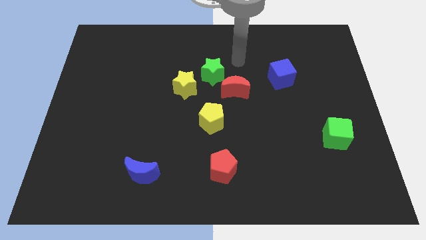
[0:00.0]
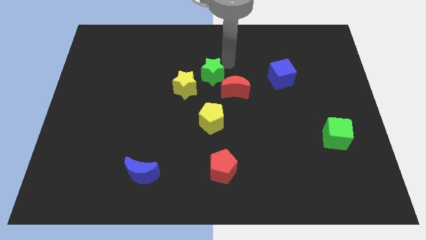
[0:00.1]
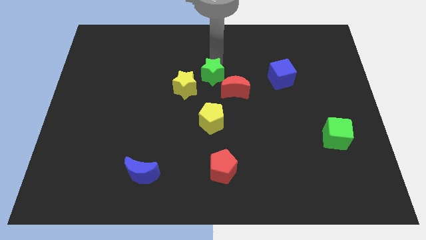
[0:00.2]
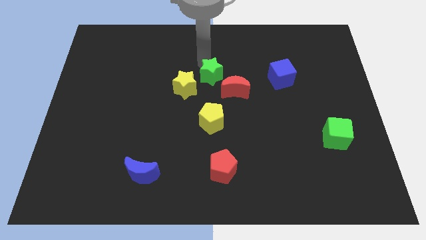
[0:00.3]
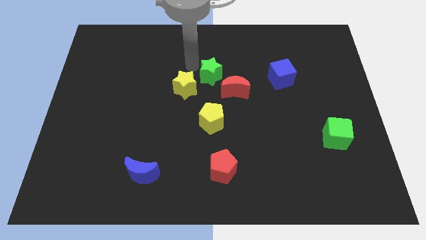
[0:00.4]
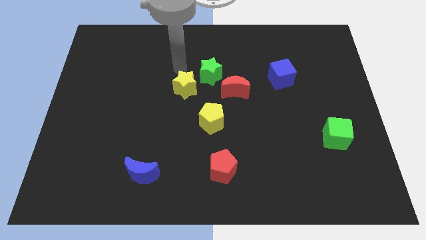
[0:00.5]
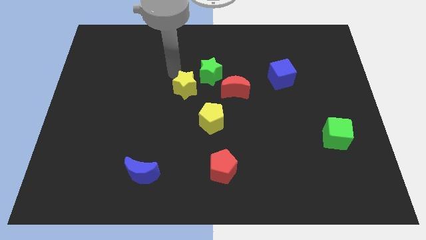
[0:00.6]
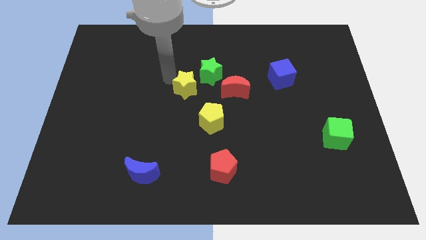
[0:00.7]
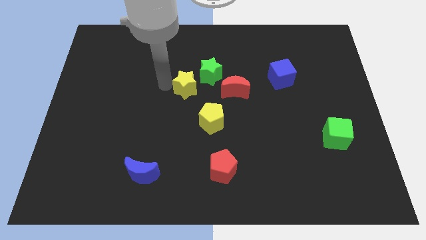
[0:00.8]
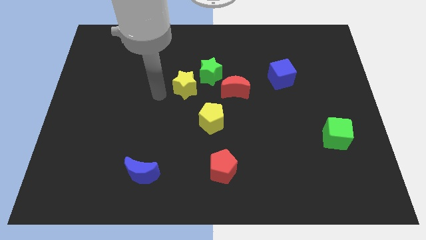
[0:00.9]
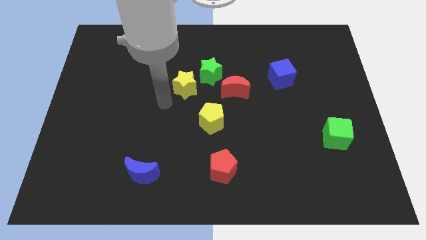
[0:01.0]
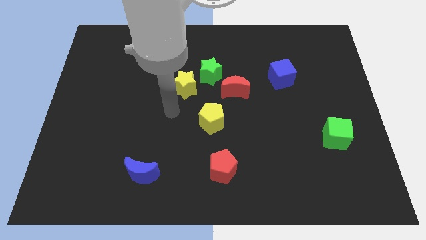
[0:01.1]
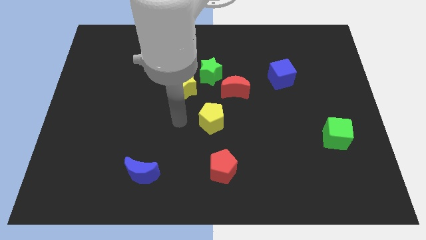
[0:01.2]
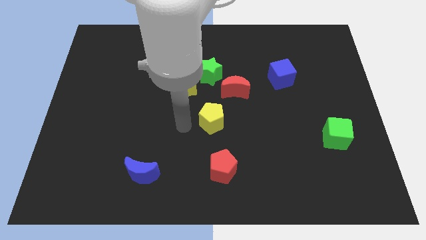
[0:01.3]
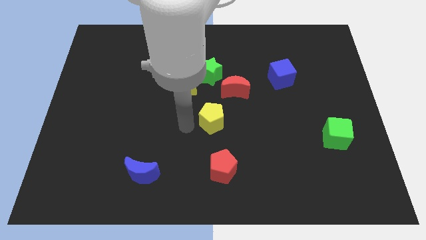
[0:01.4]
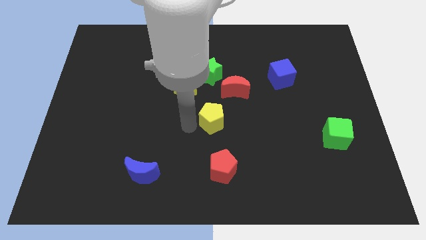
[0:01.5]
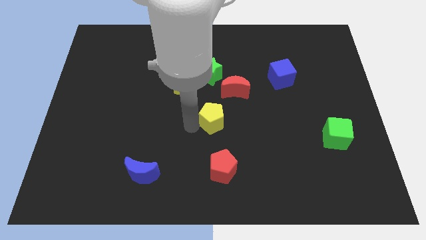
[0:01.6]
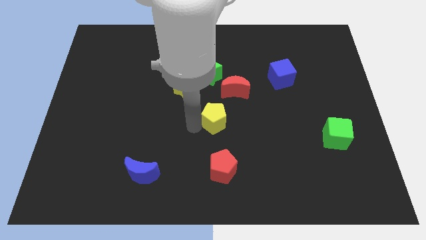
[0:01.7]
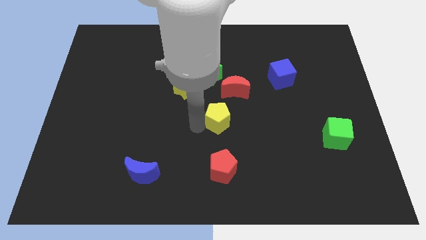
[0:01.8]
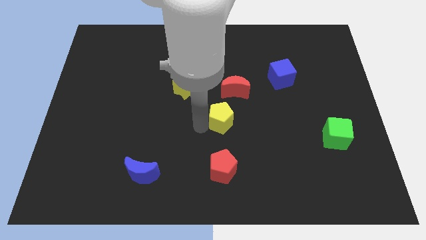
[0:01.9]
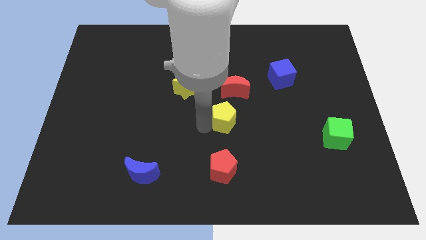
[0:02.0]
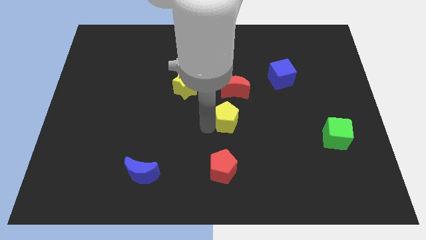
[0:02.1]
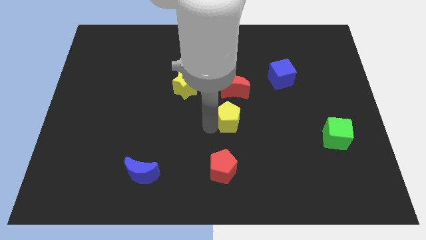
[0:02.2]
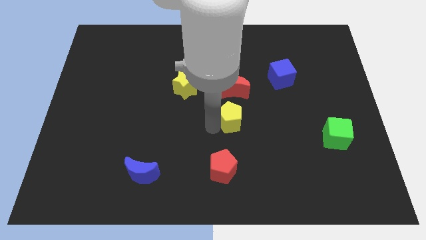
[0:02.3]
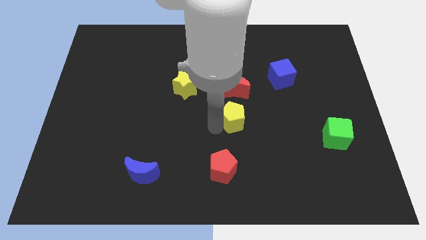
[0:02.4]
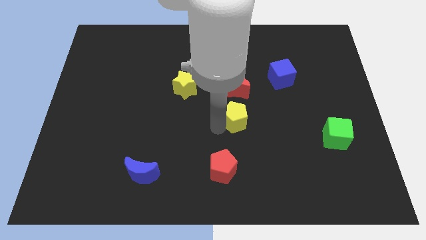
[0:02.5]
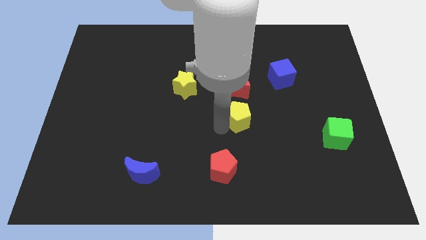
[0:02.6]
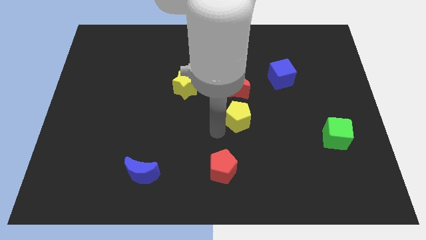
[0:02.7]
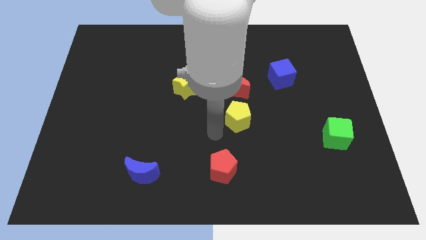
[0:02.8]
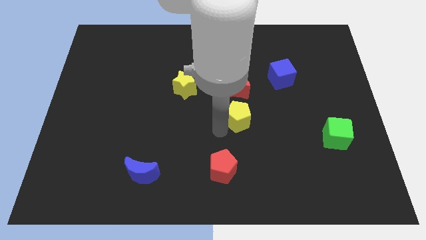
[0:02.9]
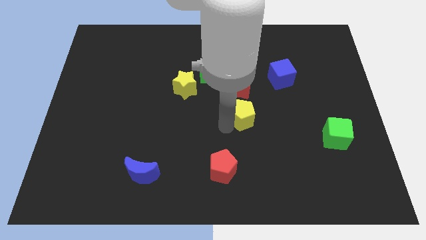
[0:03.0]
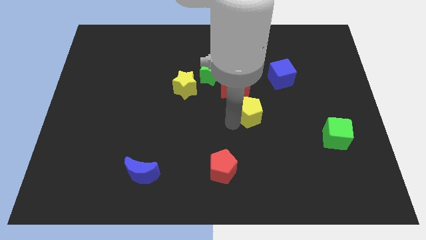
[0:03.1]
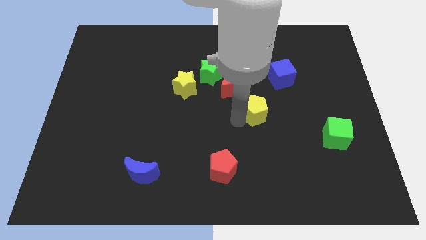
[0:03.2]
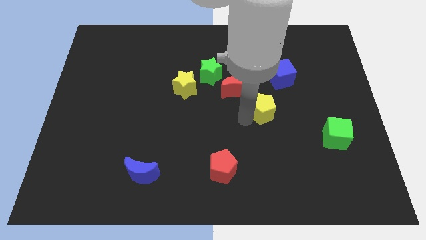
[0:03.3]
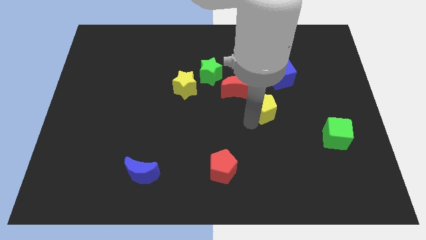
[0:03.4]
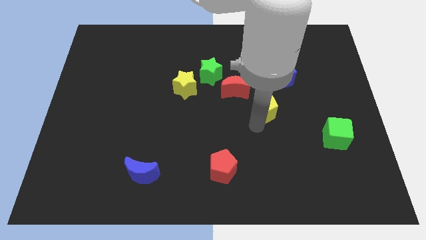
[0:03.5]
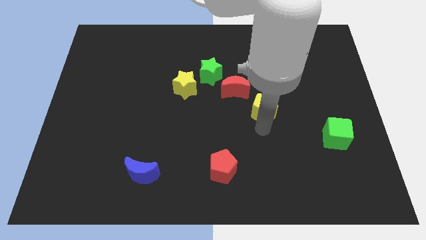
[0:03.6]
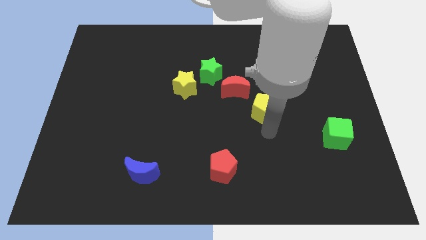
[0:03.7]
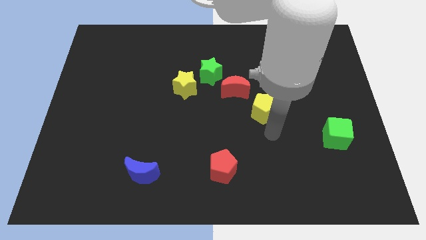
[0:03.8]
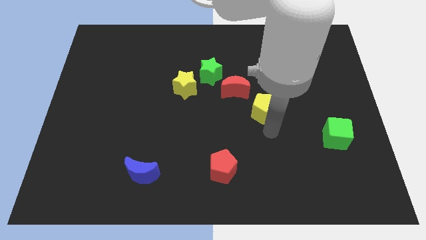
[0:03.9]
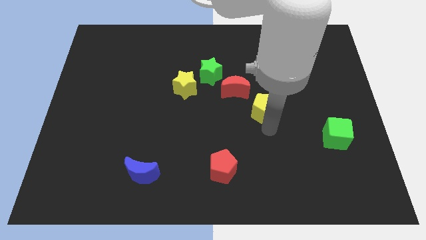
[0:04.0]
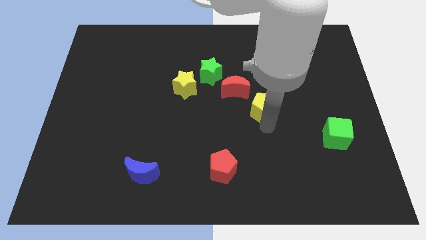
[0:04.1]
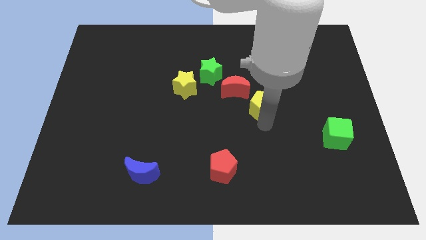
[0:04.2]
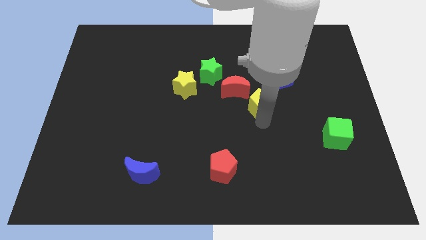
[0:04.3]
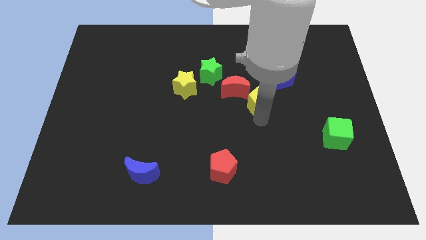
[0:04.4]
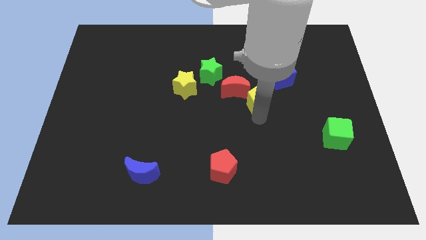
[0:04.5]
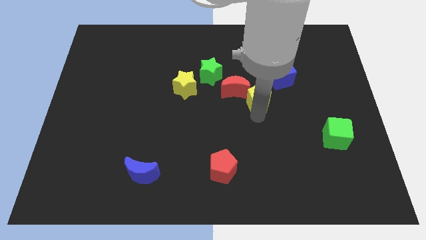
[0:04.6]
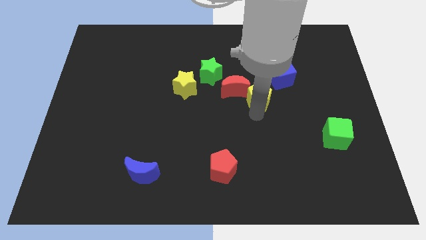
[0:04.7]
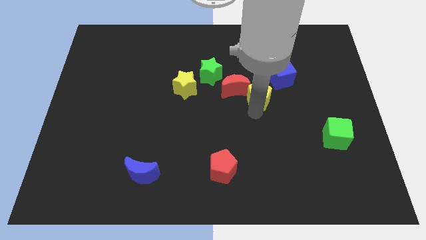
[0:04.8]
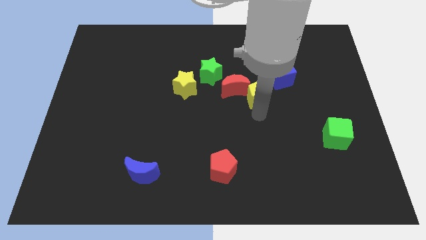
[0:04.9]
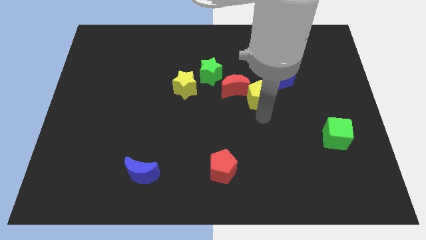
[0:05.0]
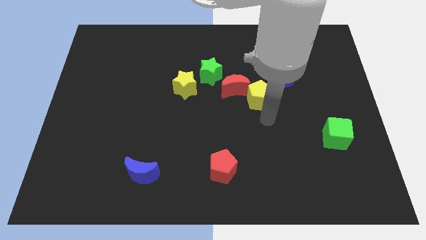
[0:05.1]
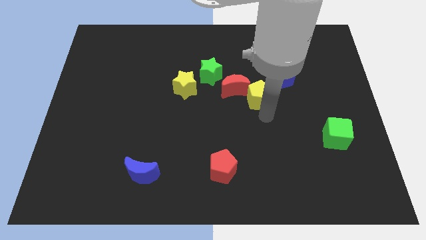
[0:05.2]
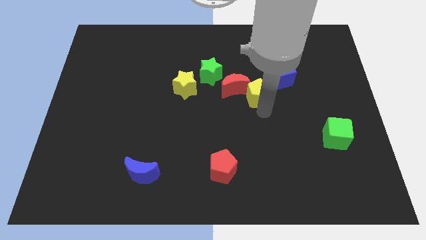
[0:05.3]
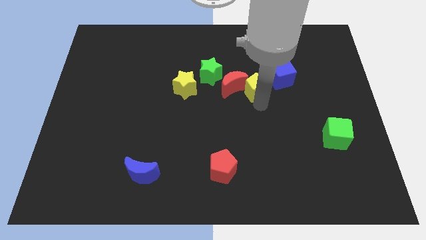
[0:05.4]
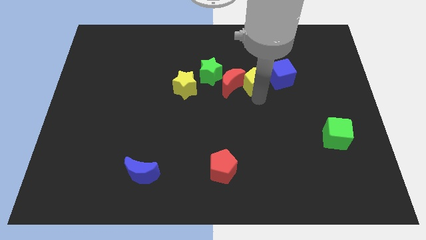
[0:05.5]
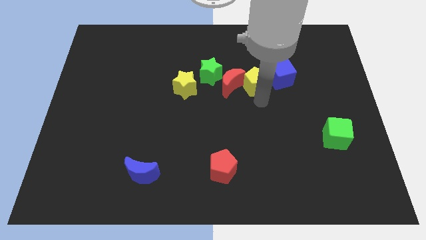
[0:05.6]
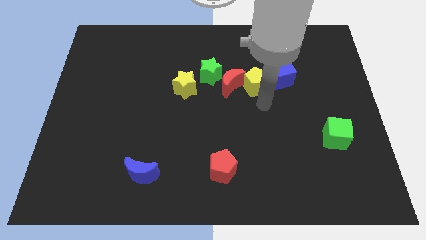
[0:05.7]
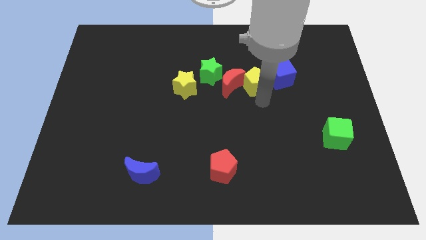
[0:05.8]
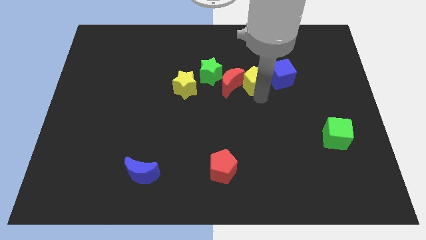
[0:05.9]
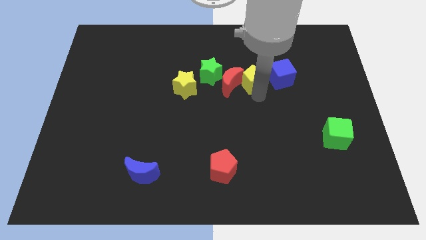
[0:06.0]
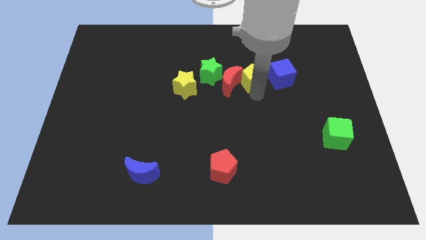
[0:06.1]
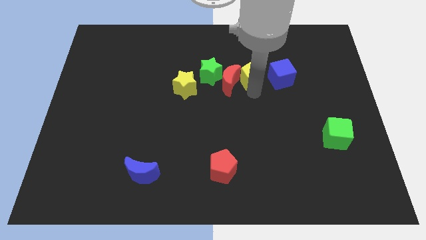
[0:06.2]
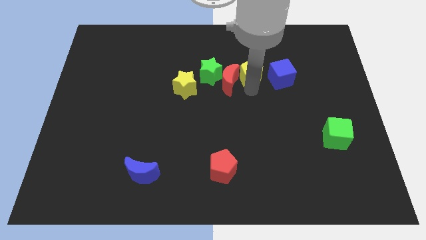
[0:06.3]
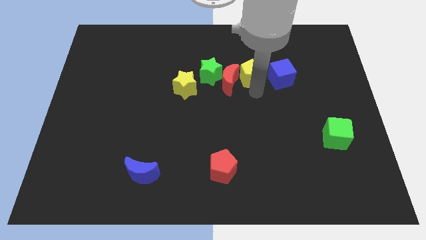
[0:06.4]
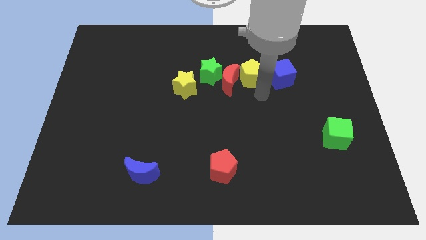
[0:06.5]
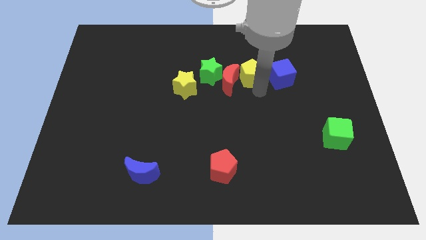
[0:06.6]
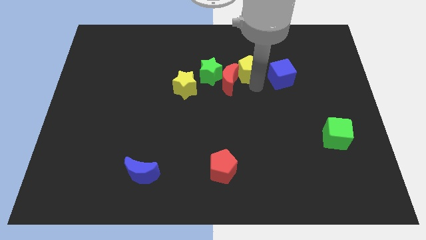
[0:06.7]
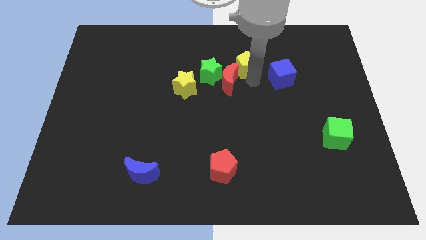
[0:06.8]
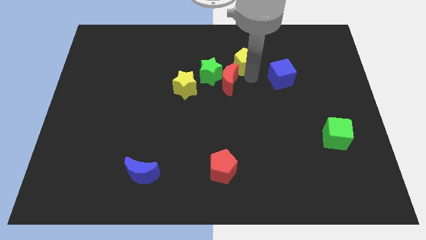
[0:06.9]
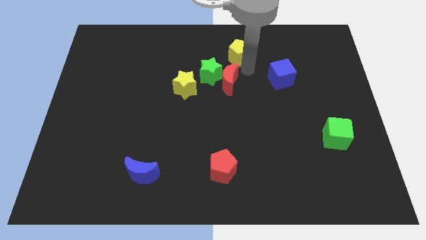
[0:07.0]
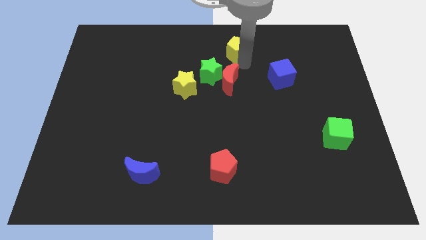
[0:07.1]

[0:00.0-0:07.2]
slide the yellow pentagon to the top
